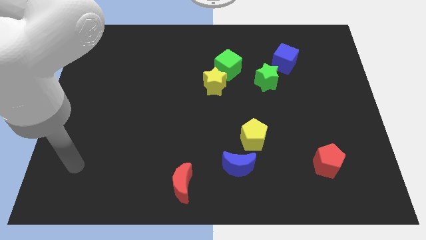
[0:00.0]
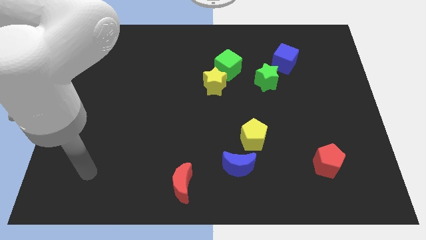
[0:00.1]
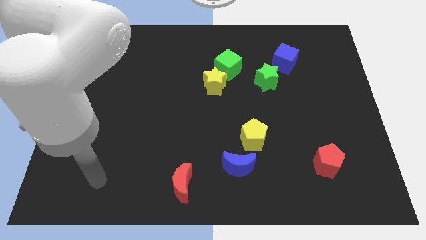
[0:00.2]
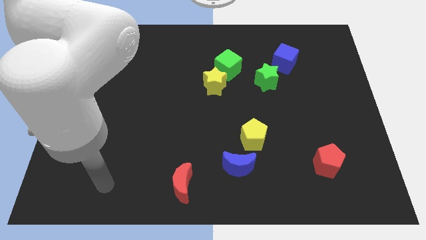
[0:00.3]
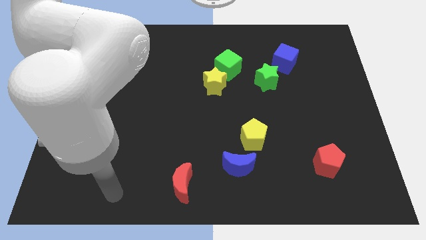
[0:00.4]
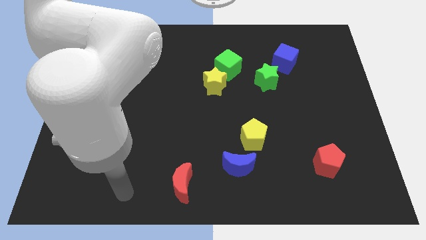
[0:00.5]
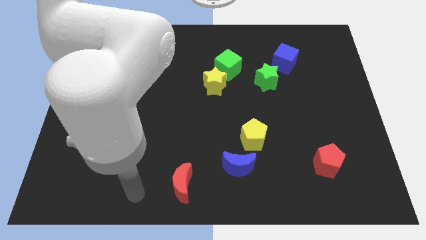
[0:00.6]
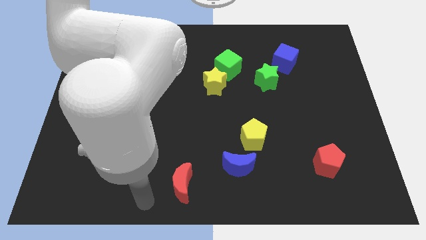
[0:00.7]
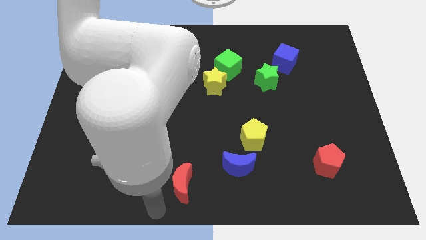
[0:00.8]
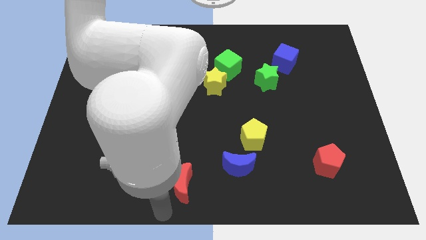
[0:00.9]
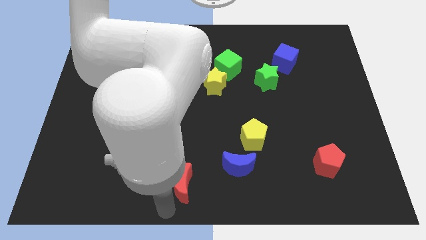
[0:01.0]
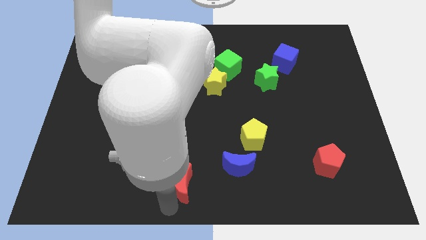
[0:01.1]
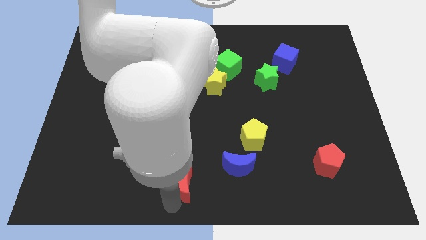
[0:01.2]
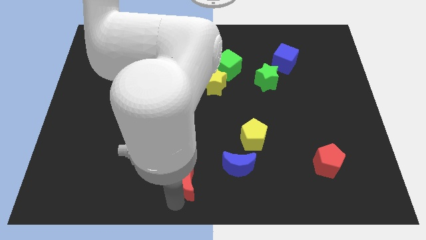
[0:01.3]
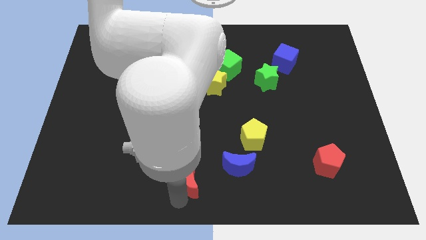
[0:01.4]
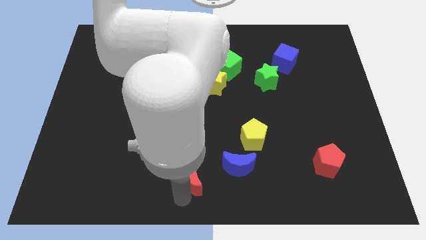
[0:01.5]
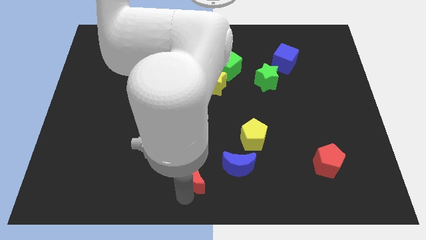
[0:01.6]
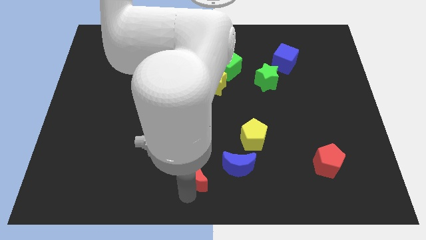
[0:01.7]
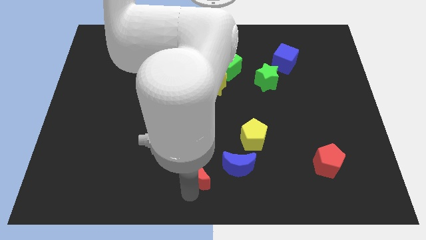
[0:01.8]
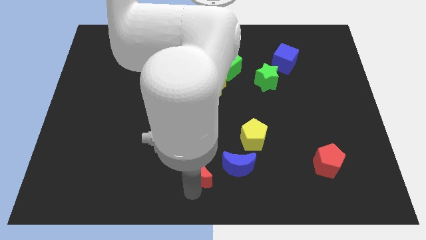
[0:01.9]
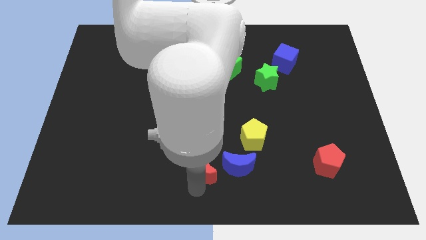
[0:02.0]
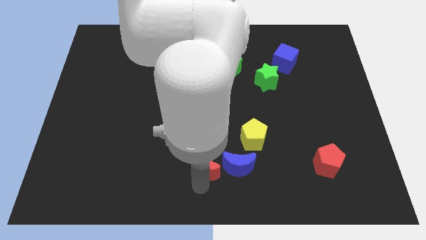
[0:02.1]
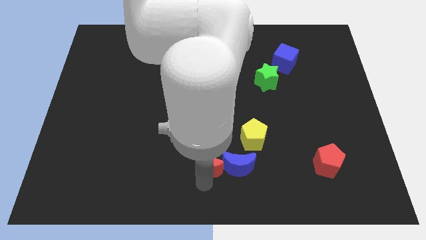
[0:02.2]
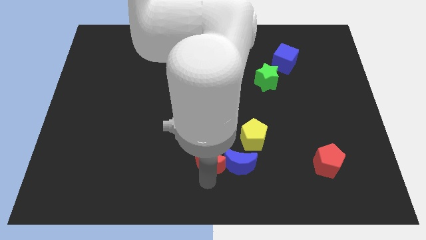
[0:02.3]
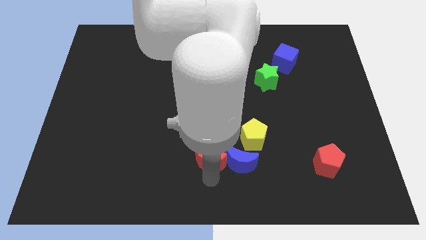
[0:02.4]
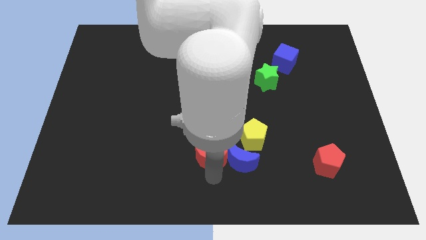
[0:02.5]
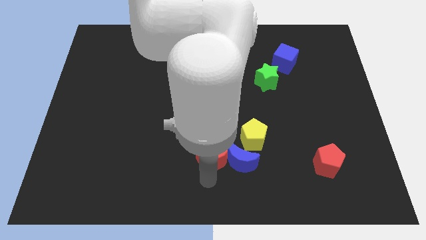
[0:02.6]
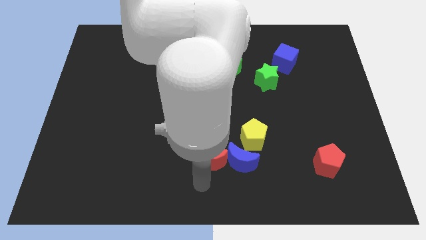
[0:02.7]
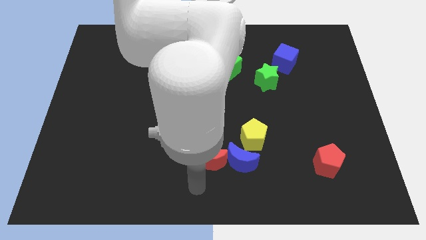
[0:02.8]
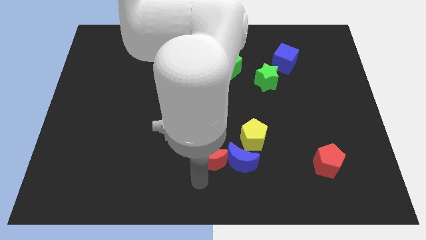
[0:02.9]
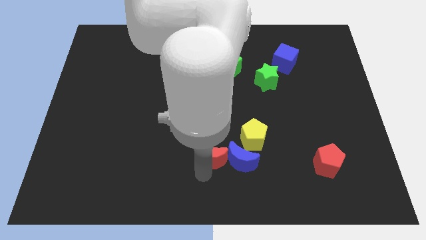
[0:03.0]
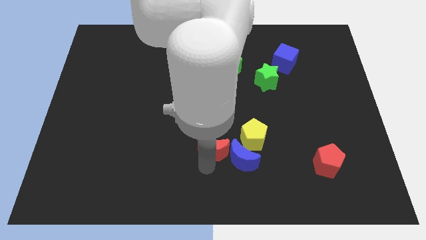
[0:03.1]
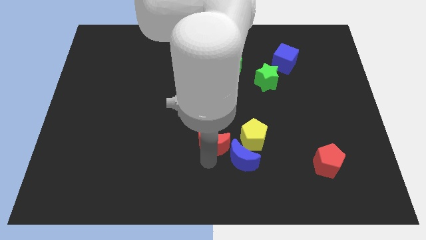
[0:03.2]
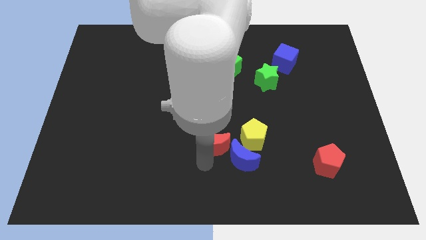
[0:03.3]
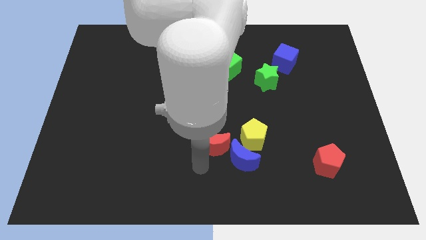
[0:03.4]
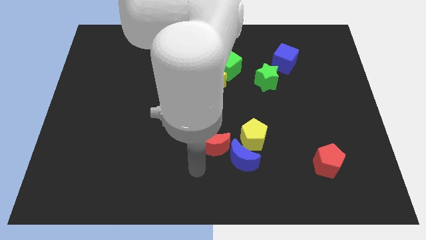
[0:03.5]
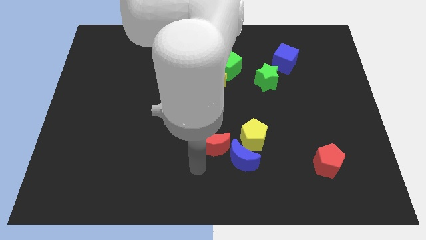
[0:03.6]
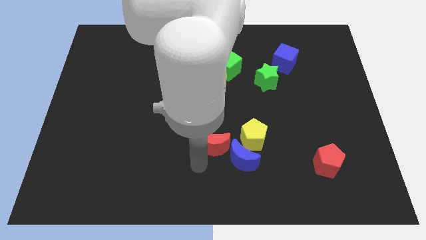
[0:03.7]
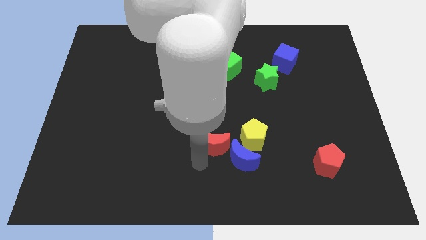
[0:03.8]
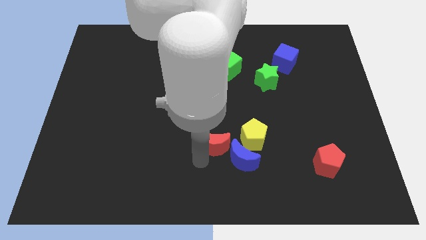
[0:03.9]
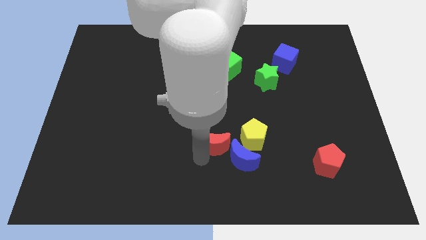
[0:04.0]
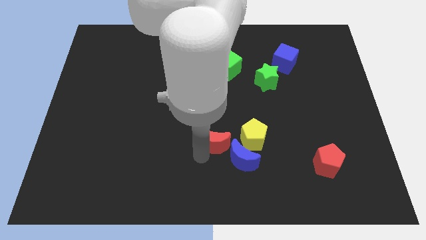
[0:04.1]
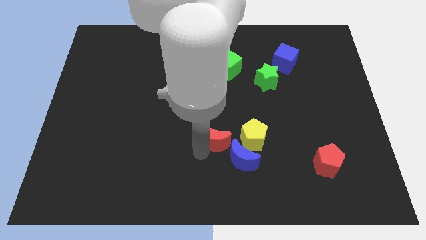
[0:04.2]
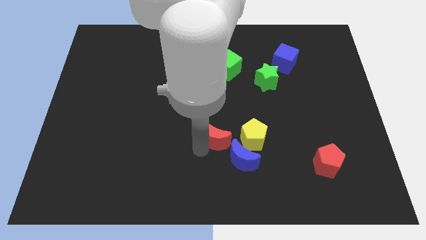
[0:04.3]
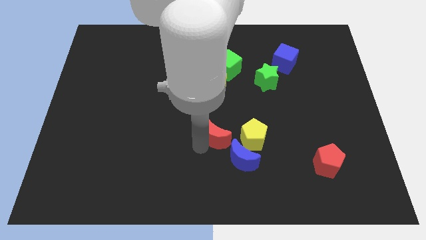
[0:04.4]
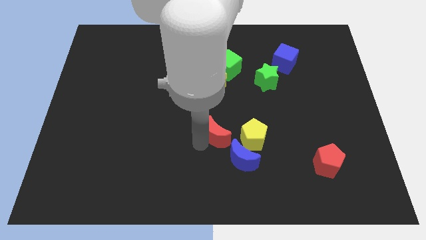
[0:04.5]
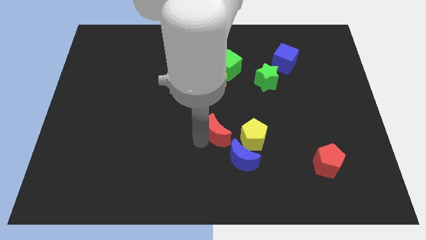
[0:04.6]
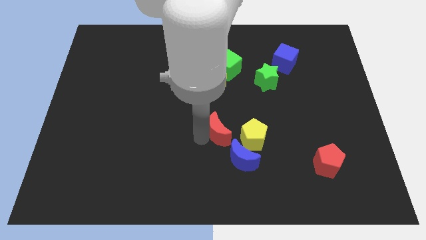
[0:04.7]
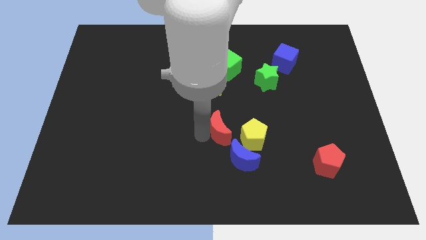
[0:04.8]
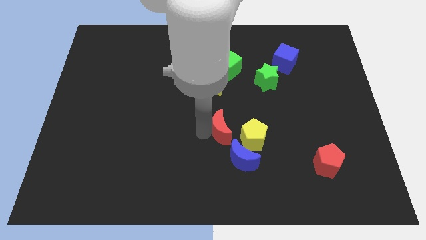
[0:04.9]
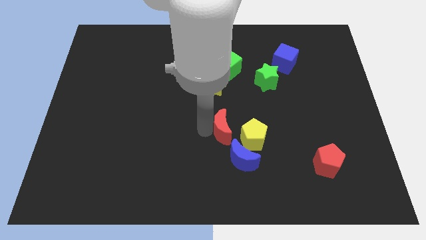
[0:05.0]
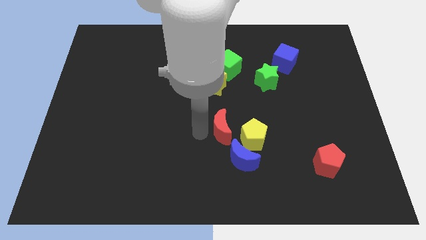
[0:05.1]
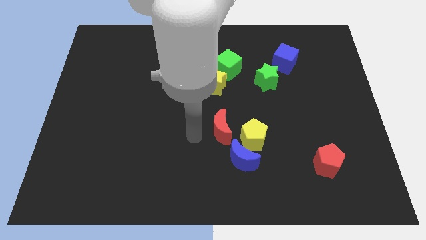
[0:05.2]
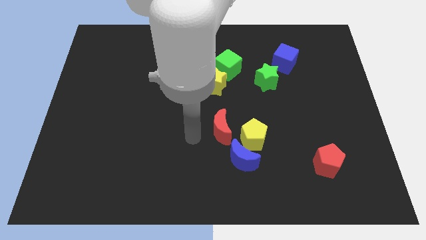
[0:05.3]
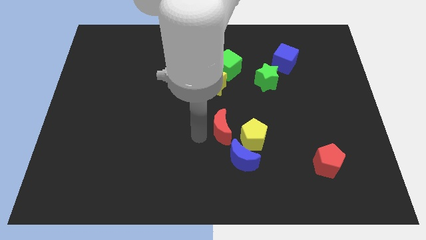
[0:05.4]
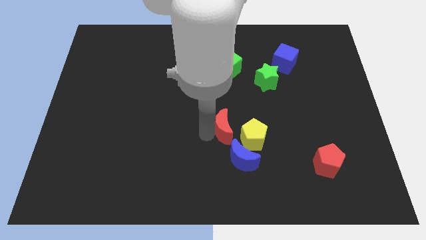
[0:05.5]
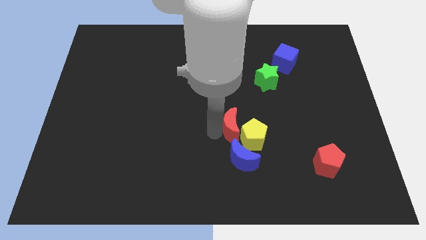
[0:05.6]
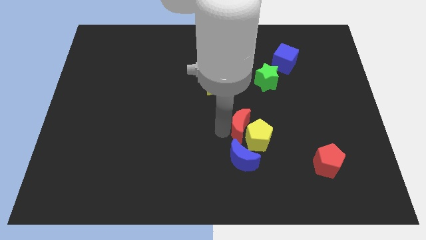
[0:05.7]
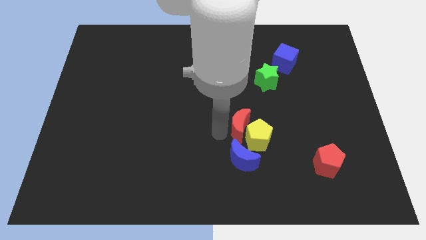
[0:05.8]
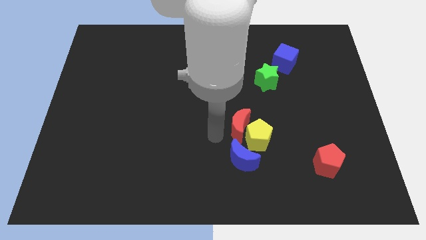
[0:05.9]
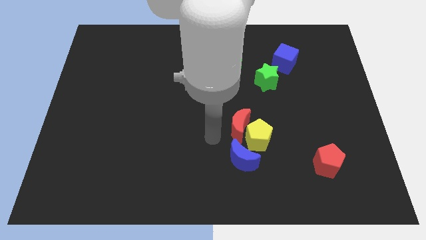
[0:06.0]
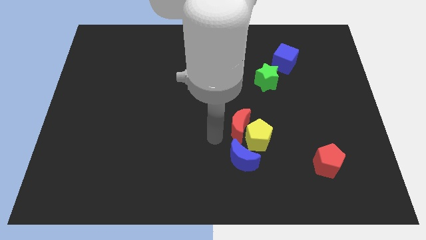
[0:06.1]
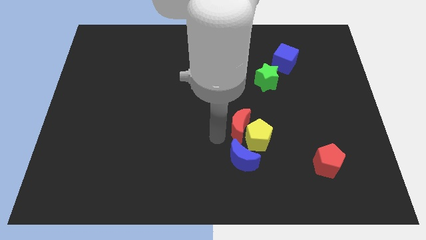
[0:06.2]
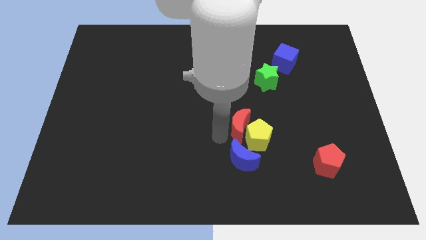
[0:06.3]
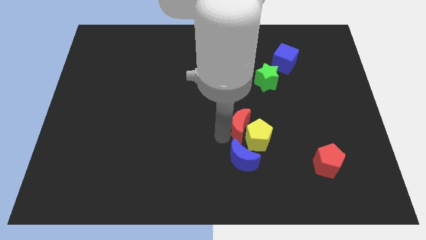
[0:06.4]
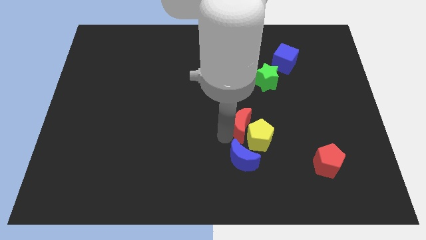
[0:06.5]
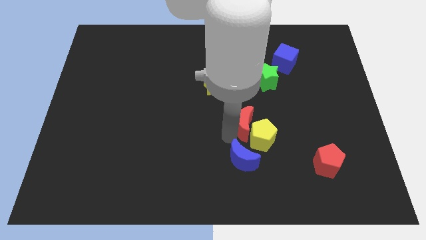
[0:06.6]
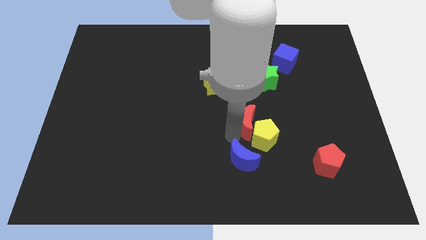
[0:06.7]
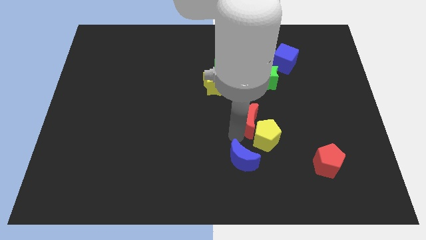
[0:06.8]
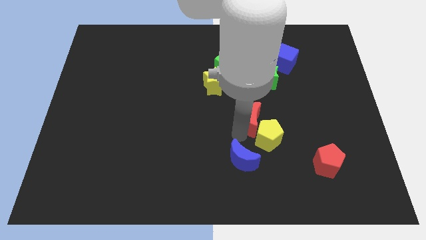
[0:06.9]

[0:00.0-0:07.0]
move the red moon below the green star

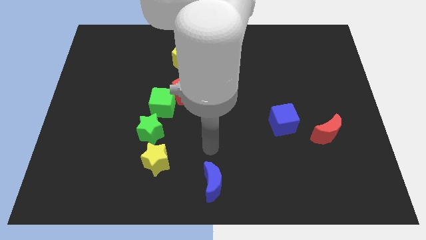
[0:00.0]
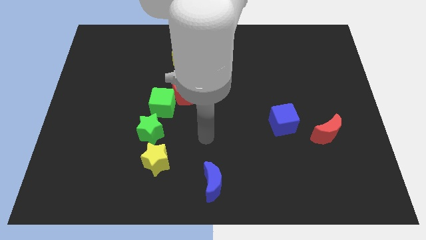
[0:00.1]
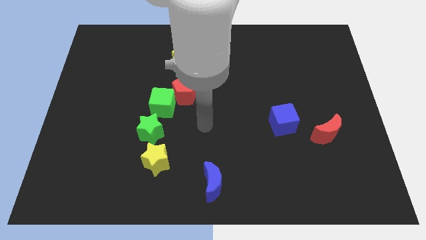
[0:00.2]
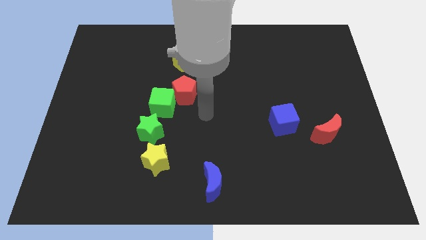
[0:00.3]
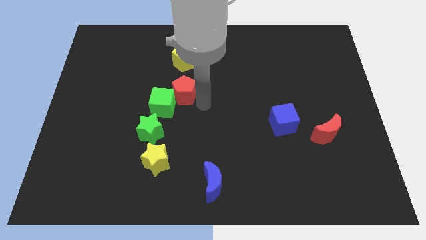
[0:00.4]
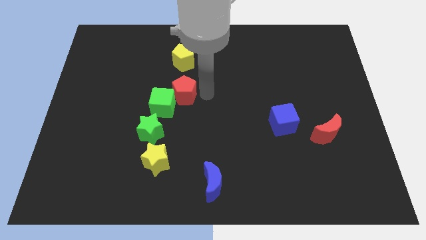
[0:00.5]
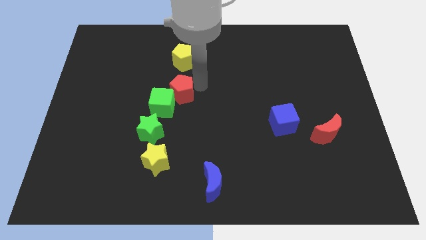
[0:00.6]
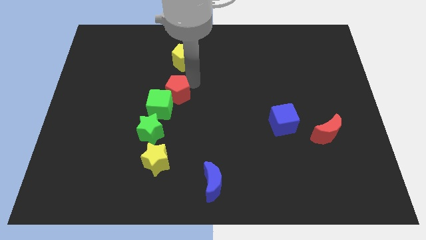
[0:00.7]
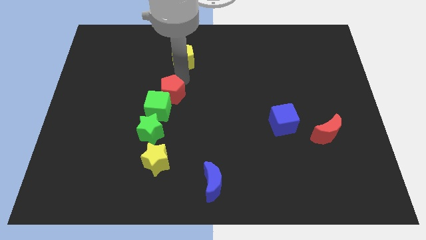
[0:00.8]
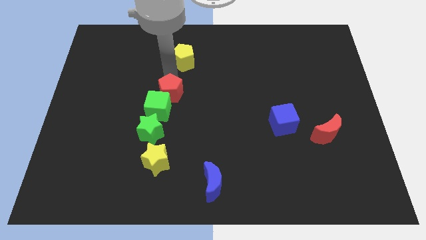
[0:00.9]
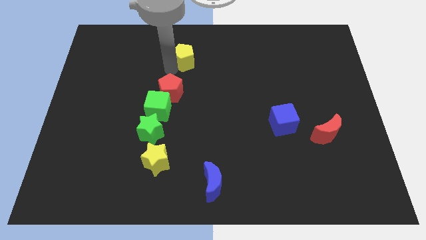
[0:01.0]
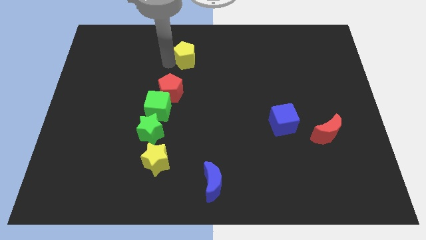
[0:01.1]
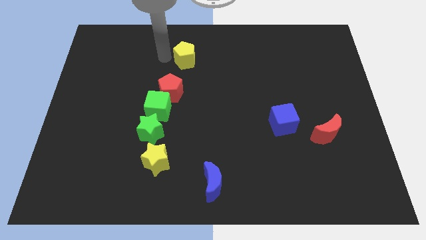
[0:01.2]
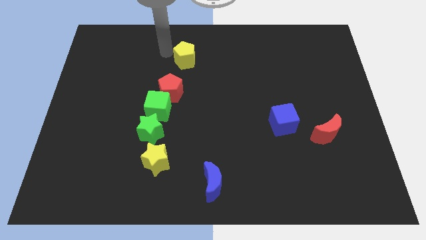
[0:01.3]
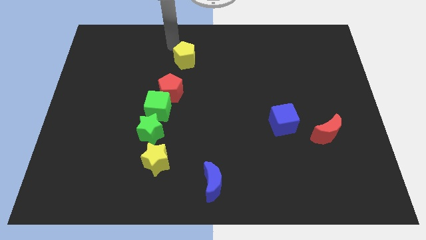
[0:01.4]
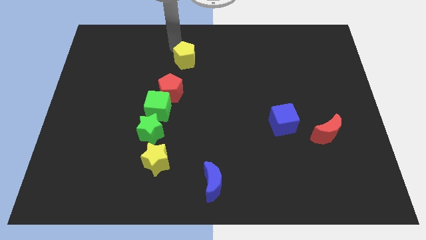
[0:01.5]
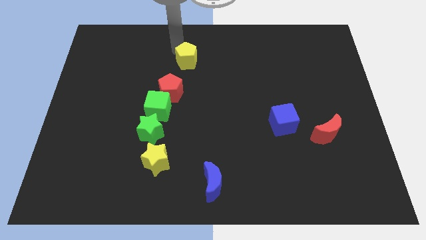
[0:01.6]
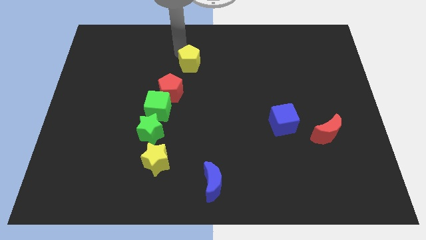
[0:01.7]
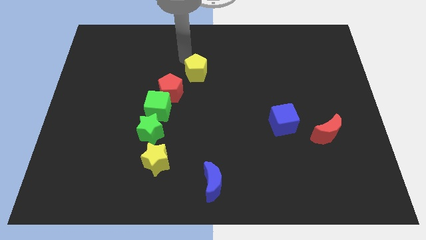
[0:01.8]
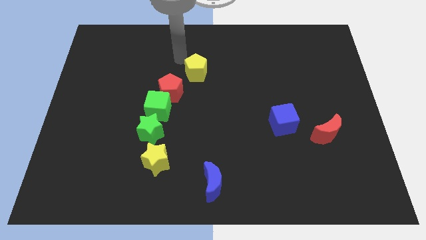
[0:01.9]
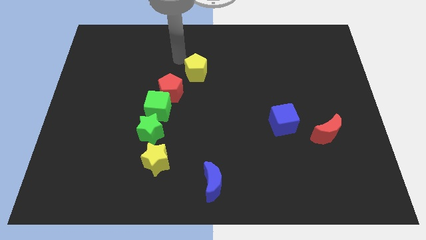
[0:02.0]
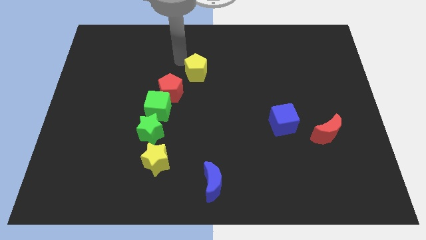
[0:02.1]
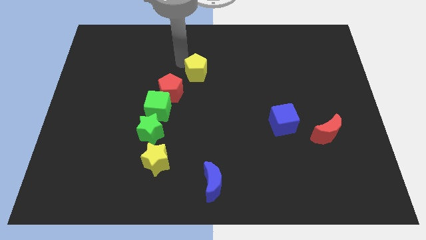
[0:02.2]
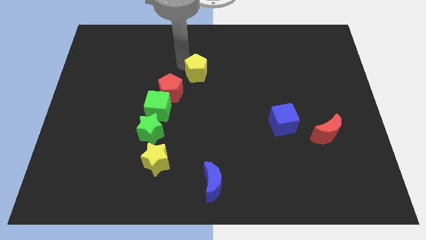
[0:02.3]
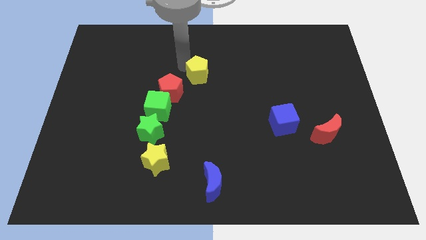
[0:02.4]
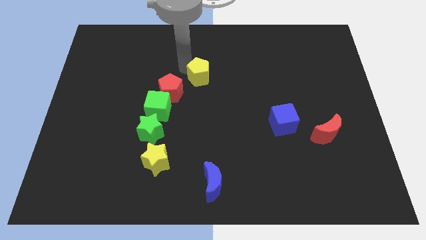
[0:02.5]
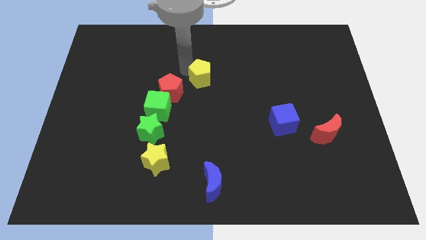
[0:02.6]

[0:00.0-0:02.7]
push the yellow pentagon just right of the red pentagon
